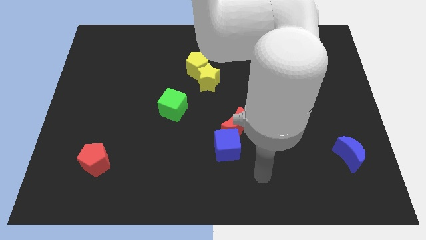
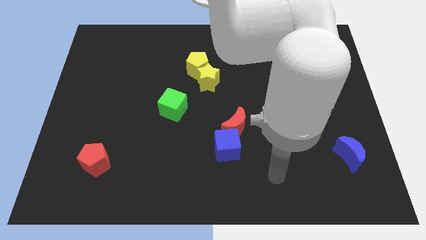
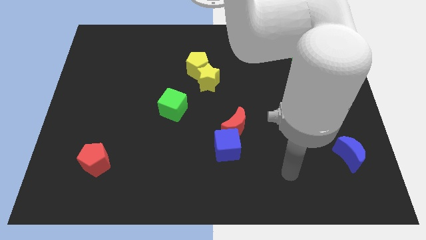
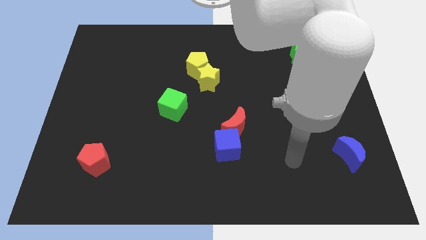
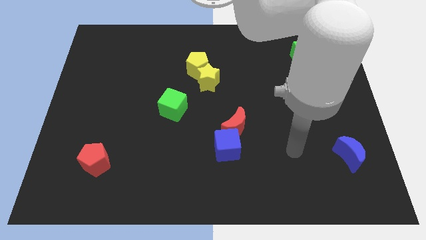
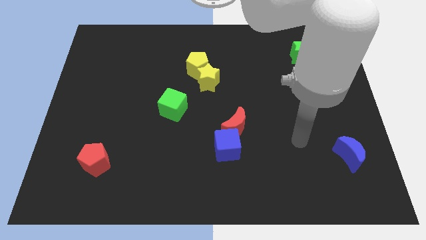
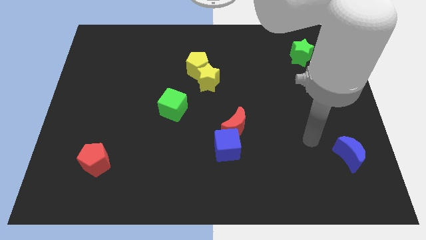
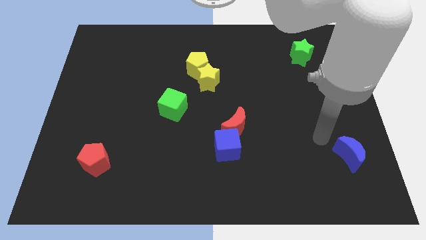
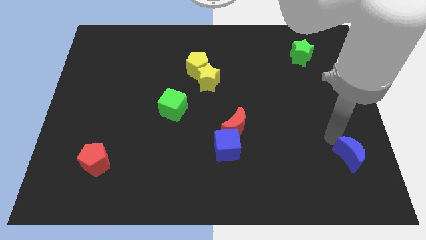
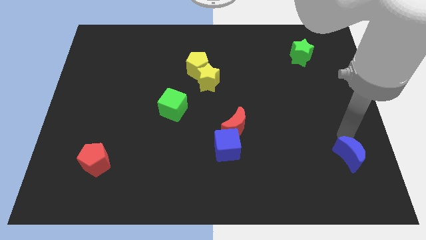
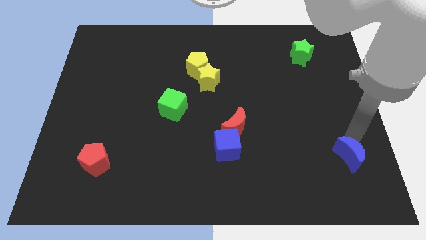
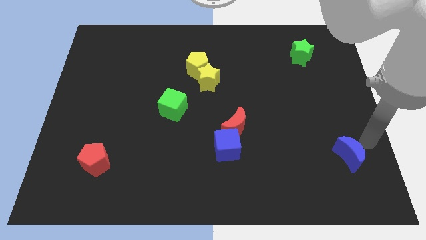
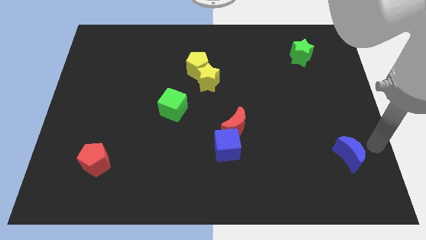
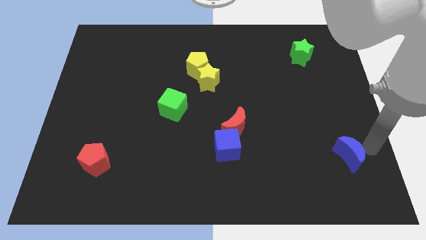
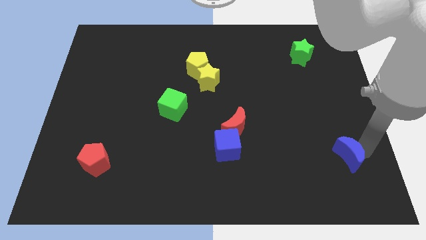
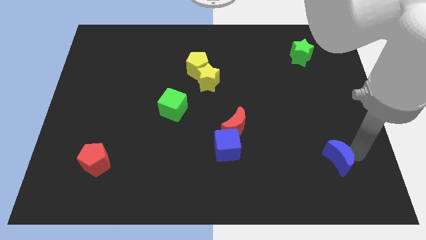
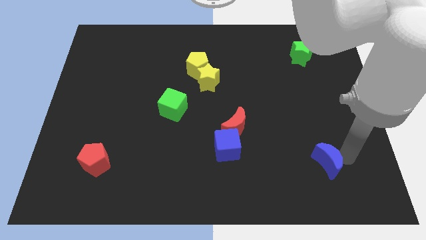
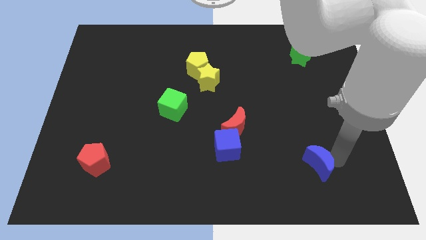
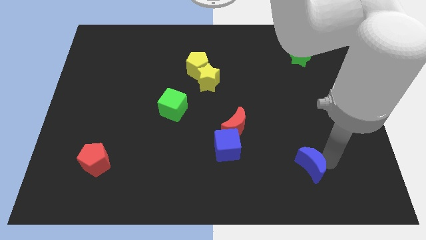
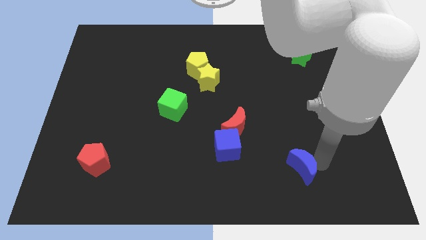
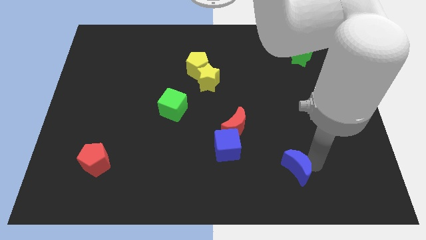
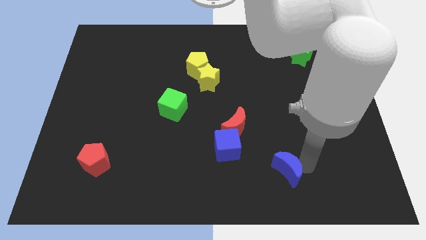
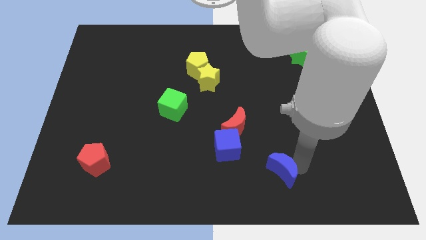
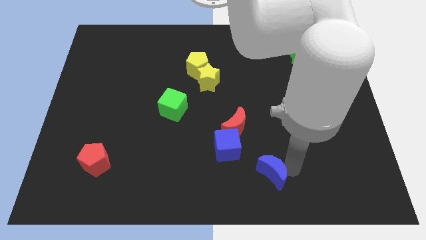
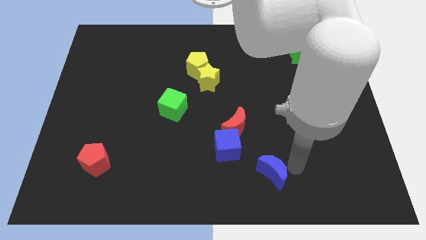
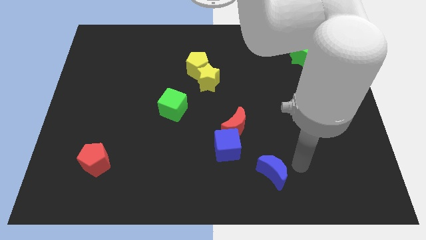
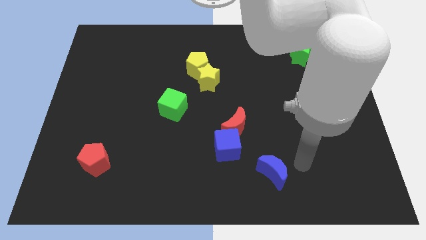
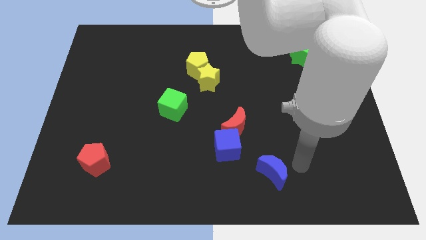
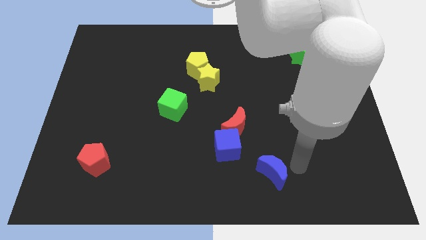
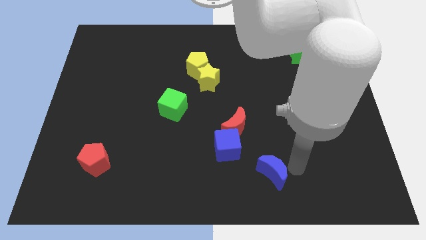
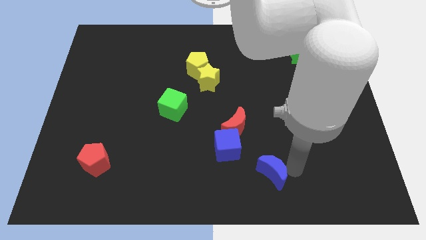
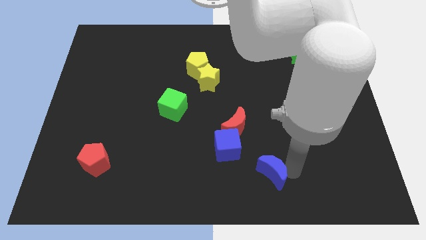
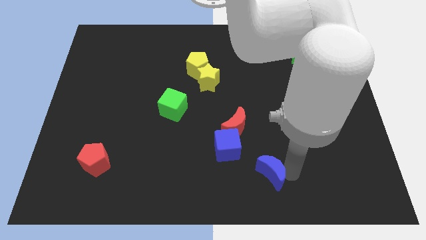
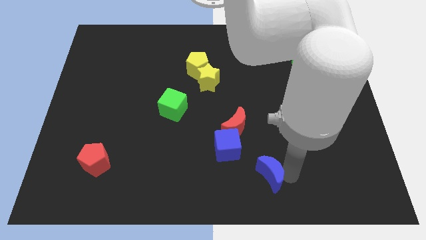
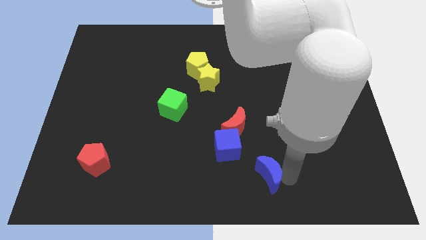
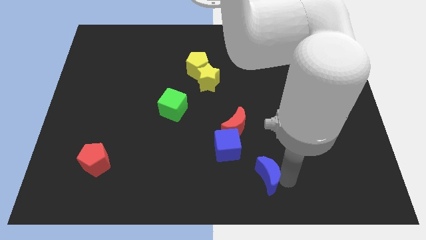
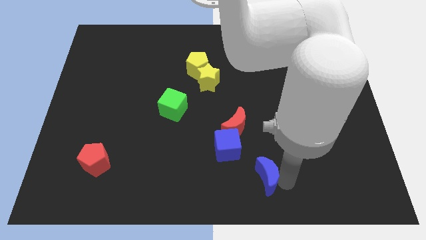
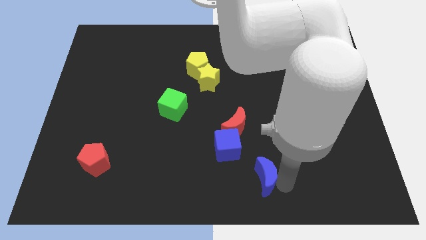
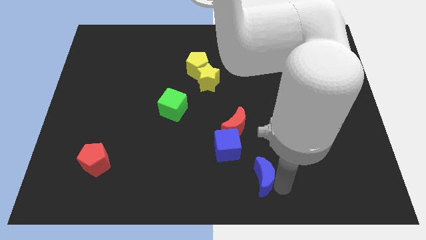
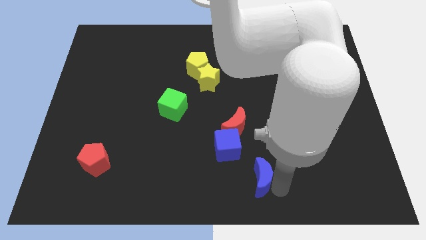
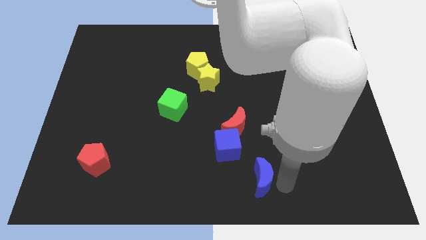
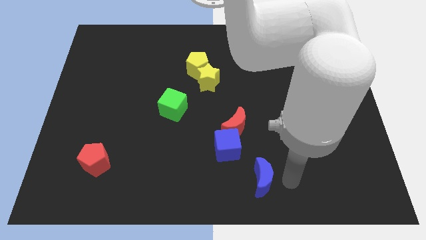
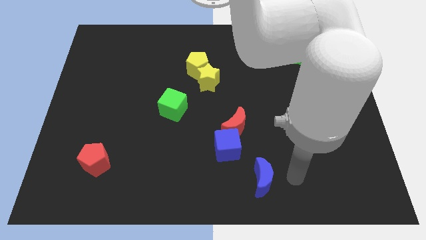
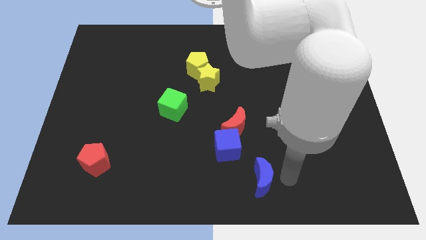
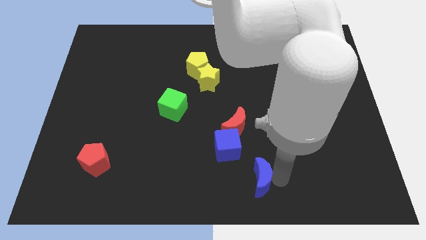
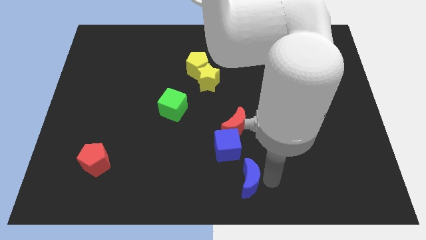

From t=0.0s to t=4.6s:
push the blue moon to the left

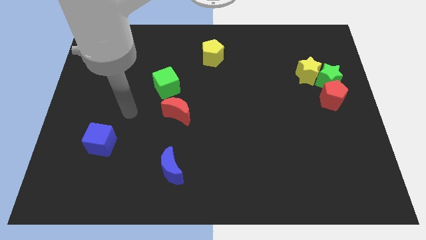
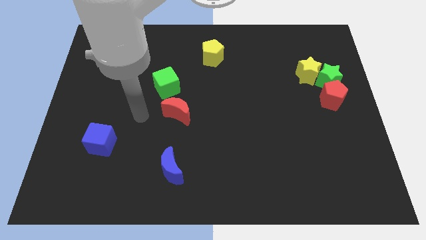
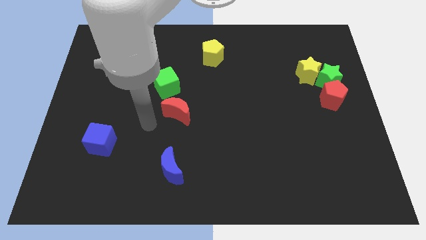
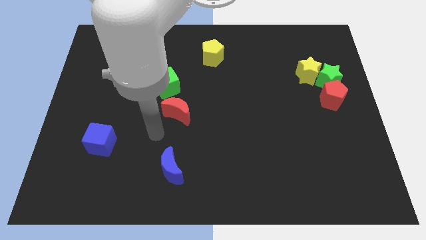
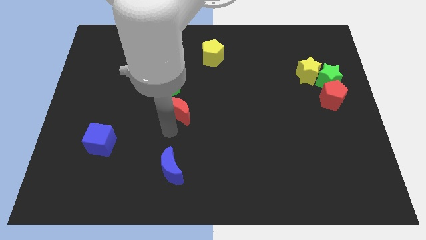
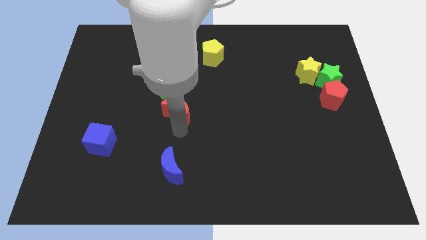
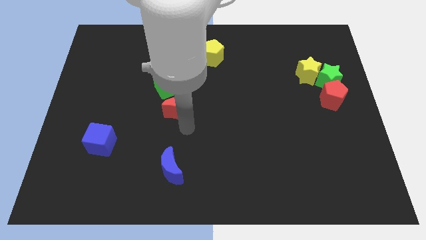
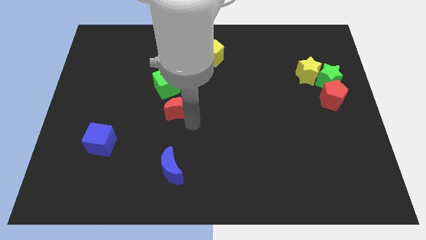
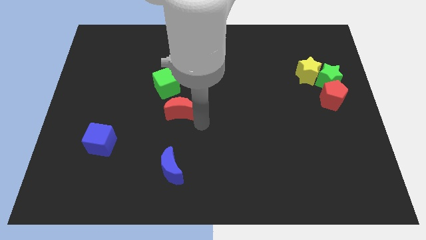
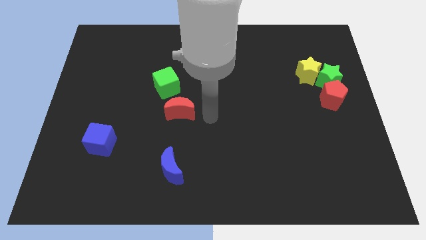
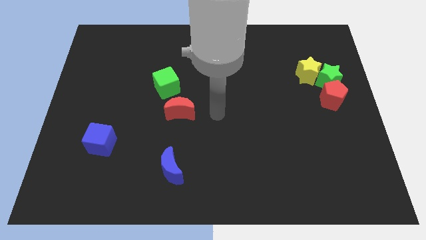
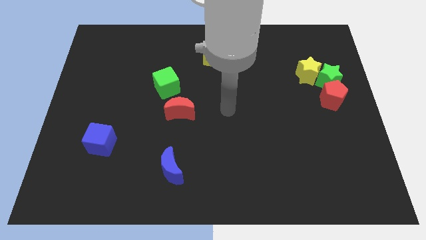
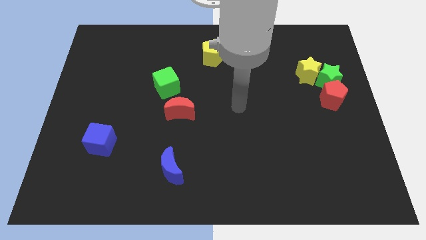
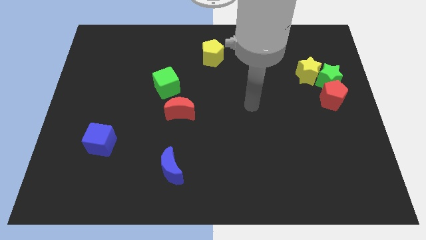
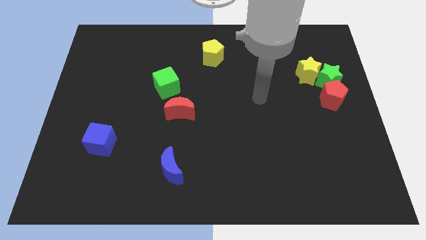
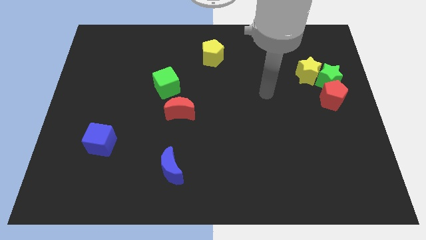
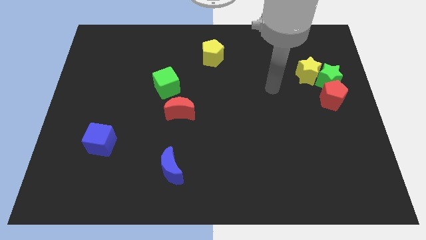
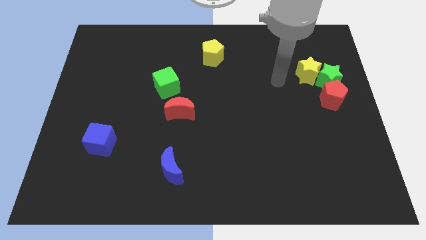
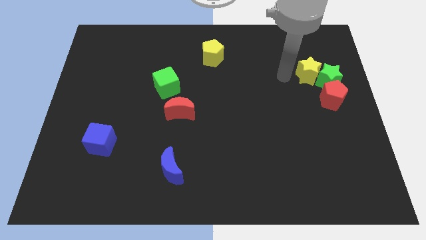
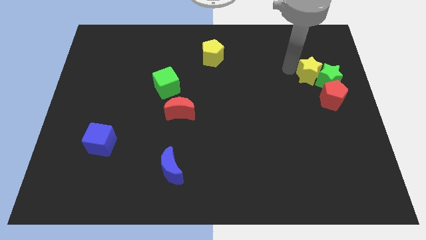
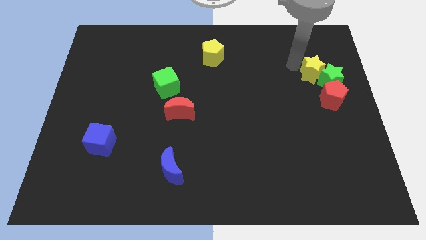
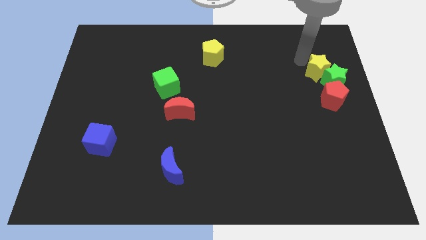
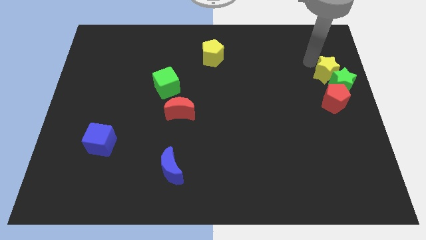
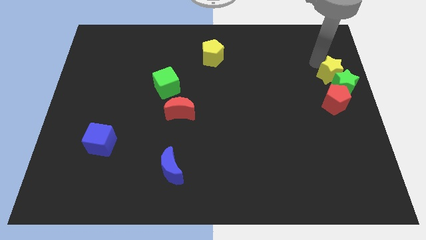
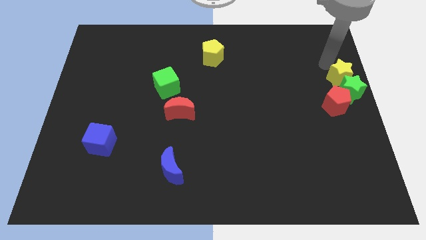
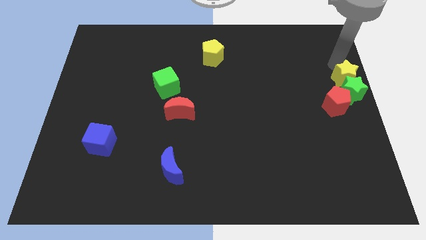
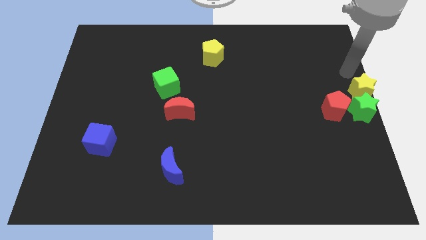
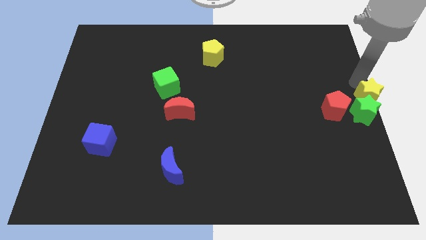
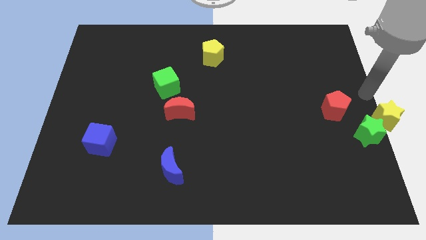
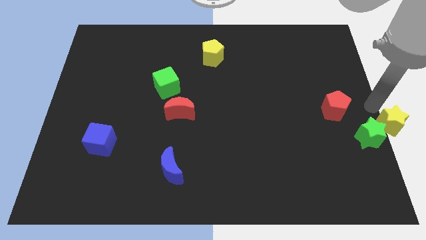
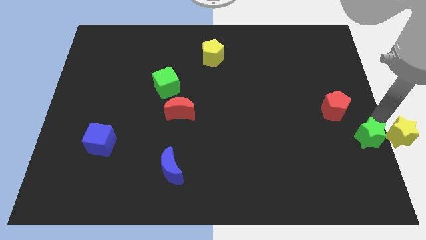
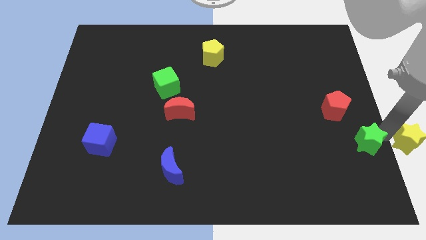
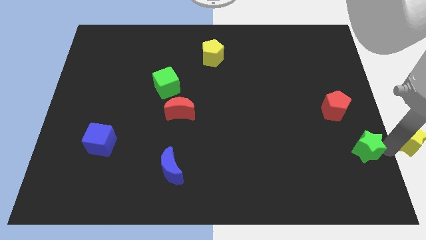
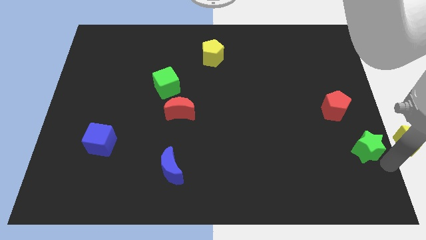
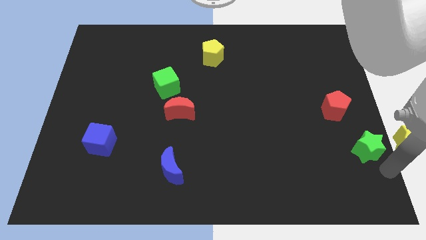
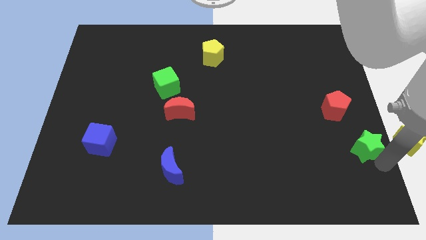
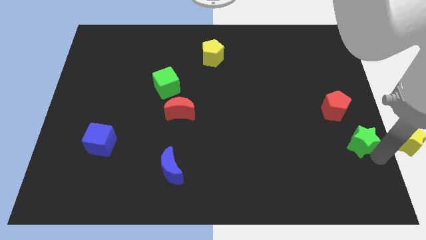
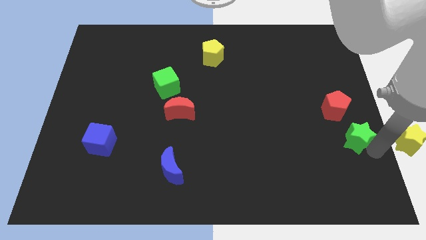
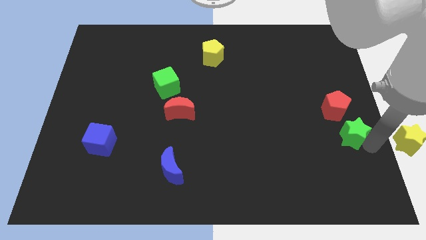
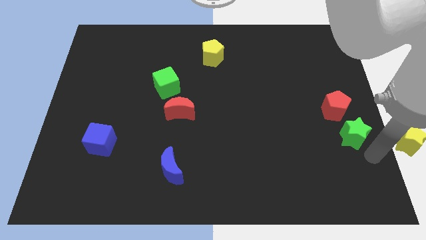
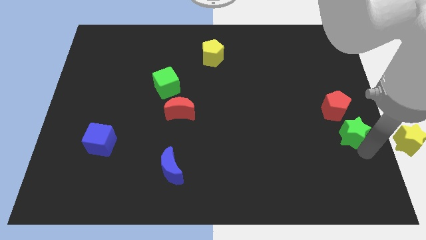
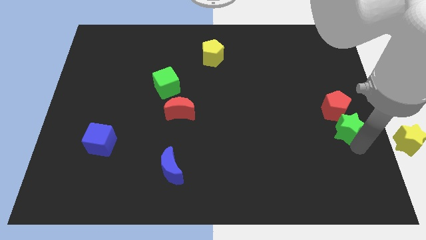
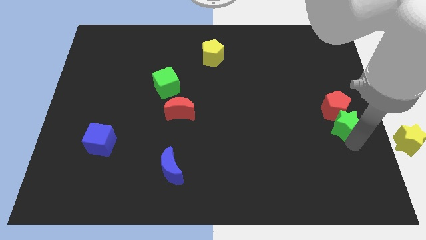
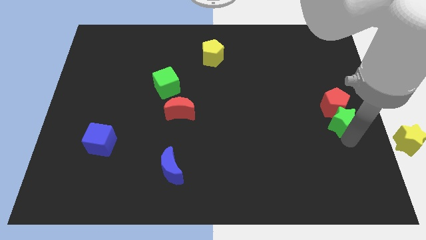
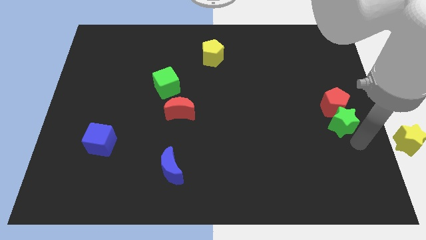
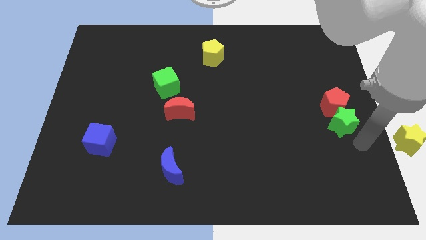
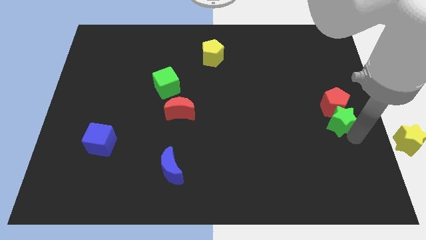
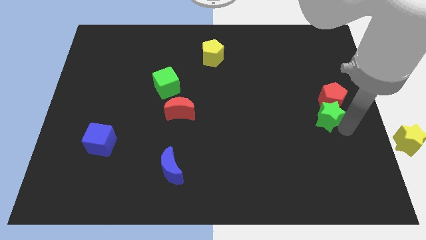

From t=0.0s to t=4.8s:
move the green star down and then to the left somewhat
